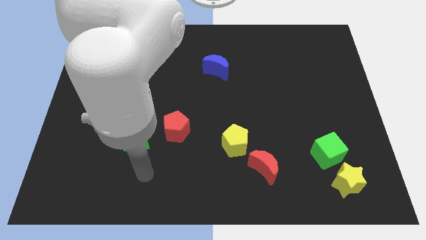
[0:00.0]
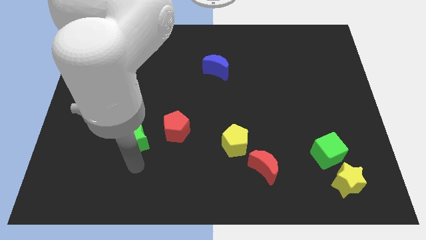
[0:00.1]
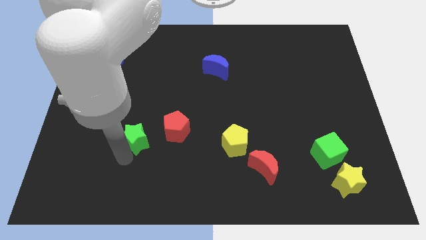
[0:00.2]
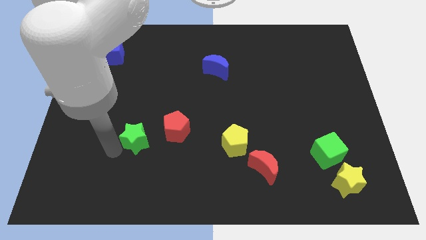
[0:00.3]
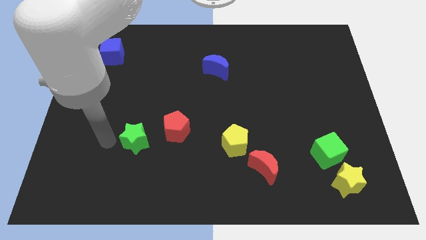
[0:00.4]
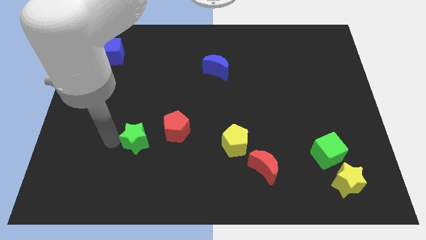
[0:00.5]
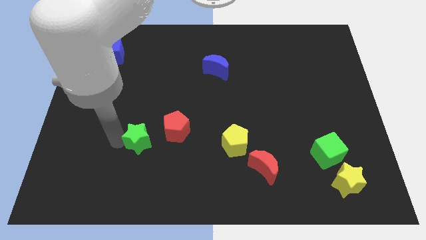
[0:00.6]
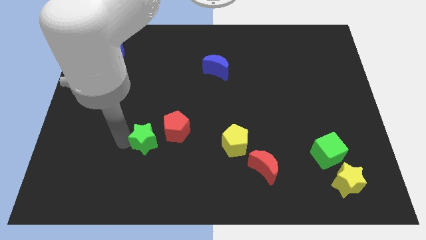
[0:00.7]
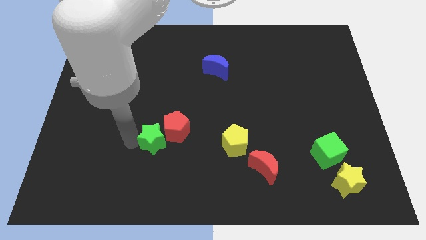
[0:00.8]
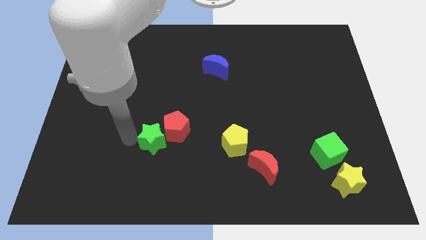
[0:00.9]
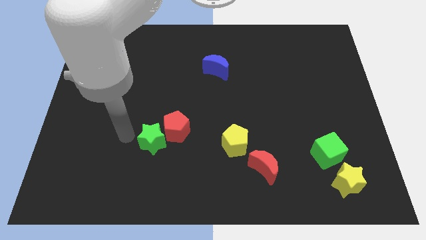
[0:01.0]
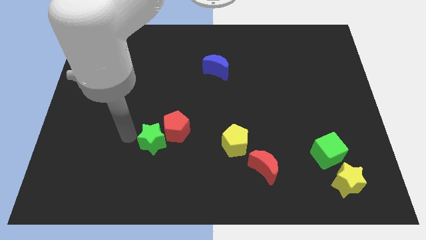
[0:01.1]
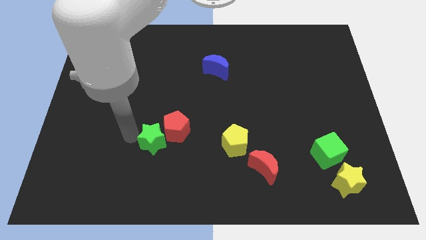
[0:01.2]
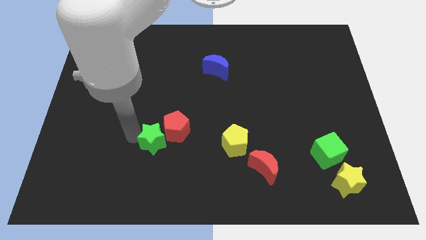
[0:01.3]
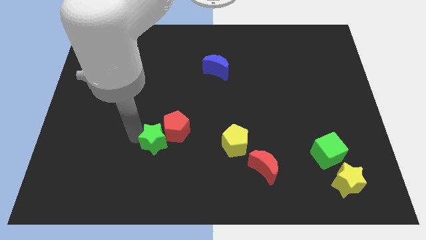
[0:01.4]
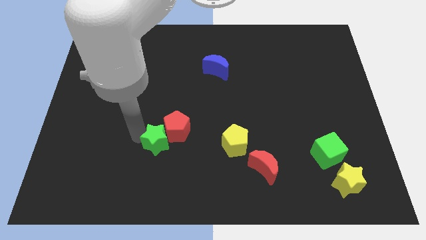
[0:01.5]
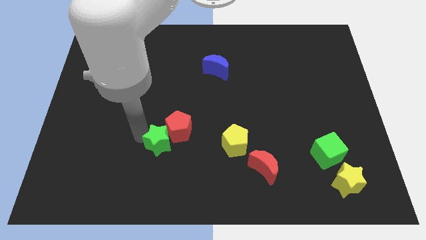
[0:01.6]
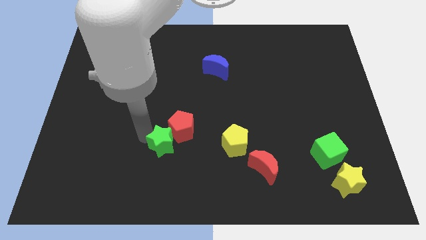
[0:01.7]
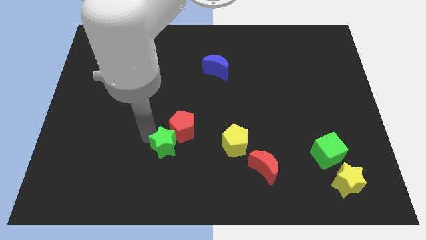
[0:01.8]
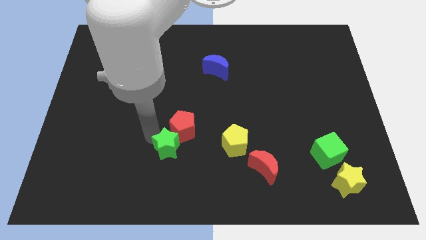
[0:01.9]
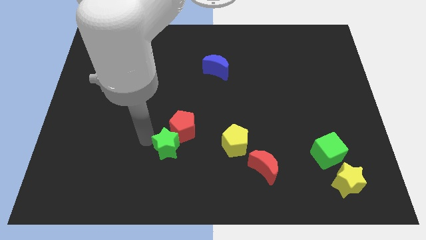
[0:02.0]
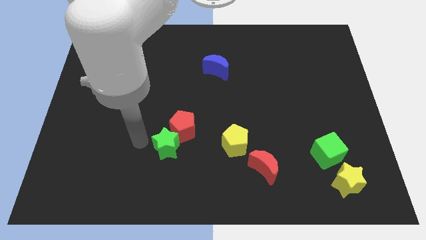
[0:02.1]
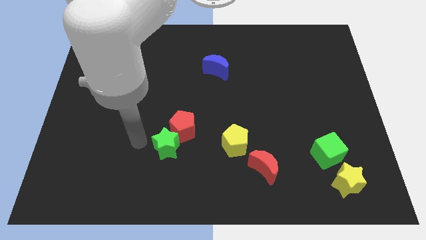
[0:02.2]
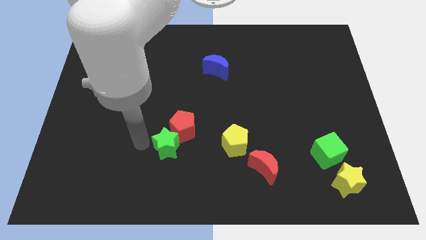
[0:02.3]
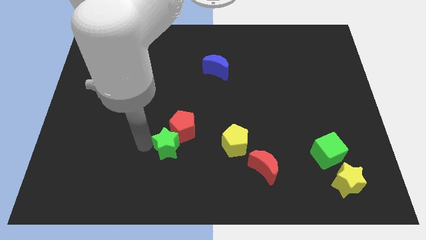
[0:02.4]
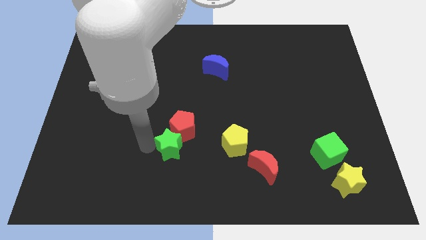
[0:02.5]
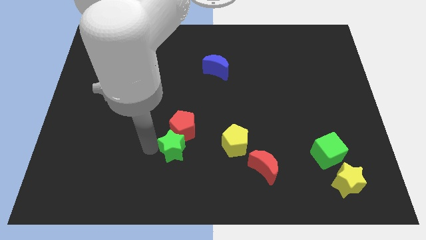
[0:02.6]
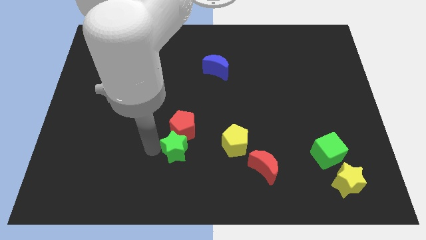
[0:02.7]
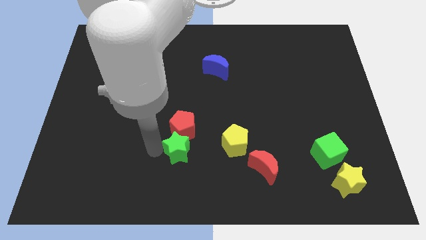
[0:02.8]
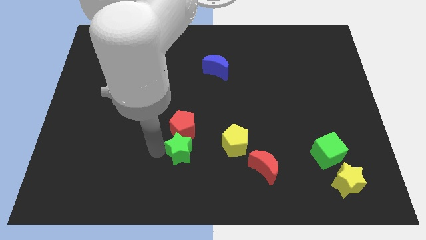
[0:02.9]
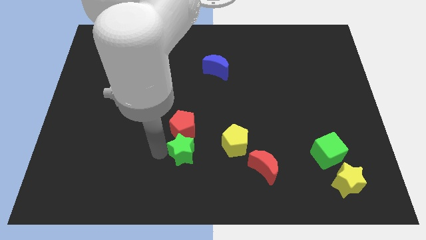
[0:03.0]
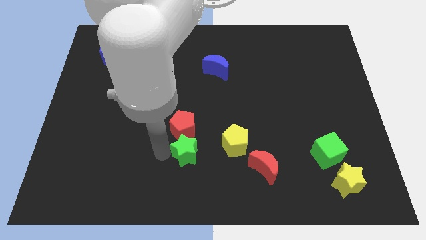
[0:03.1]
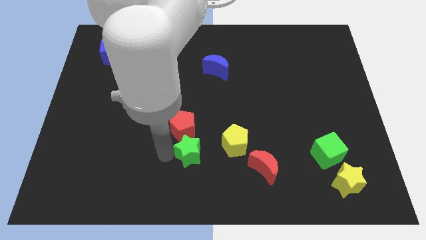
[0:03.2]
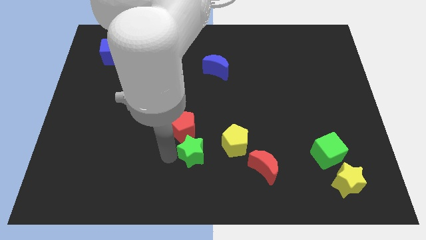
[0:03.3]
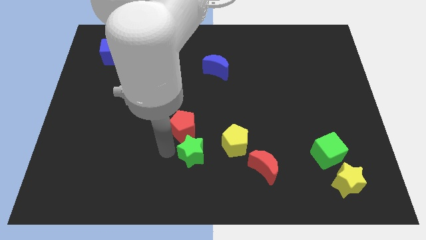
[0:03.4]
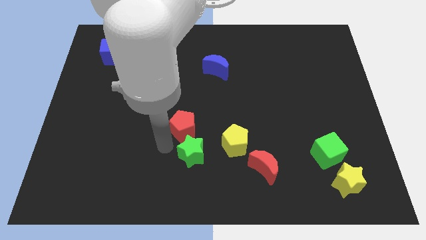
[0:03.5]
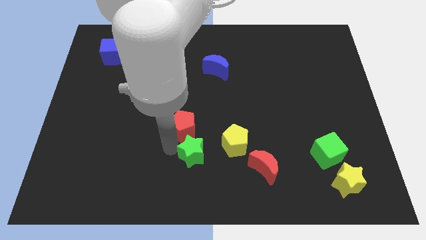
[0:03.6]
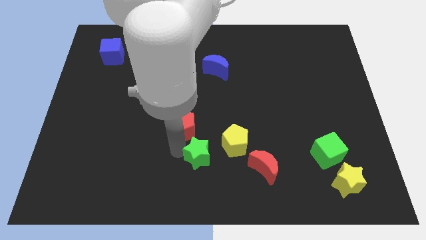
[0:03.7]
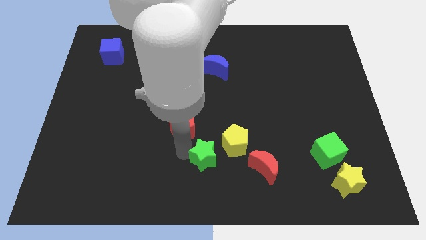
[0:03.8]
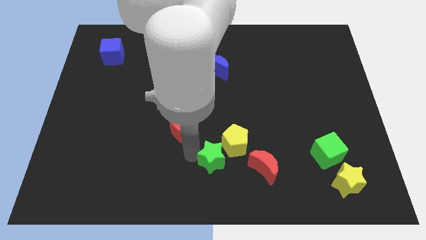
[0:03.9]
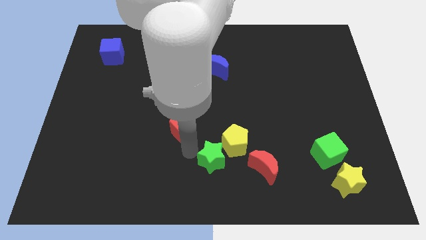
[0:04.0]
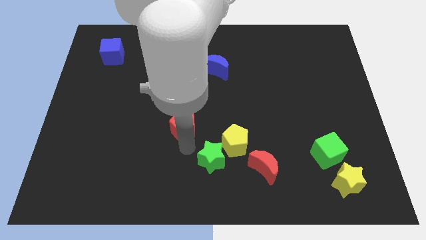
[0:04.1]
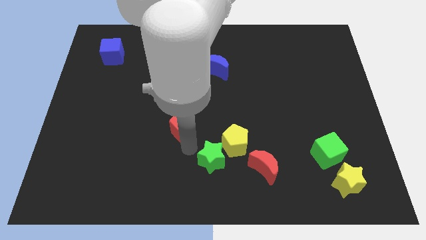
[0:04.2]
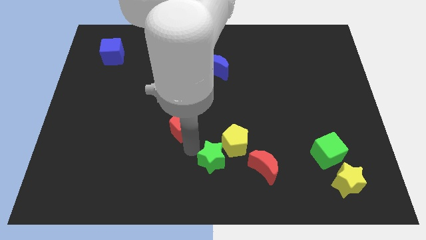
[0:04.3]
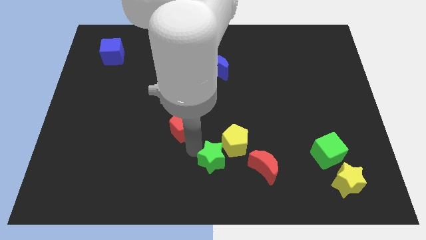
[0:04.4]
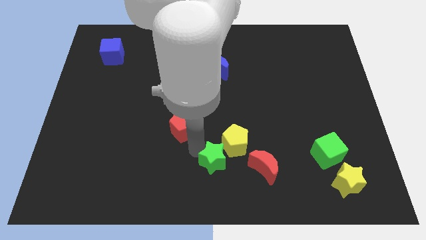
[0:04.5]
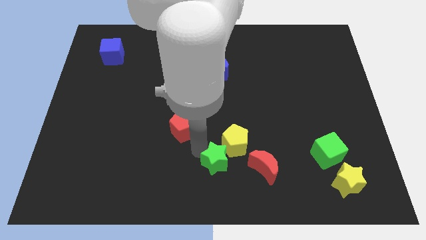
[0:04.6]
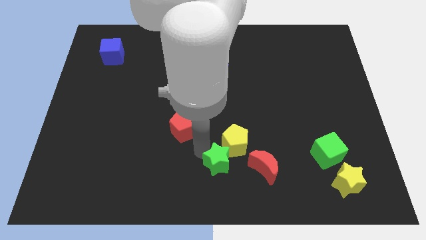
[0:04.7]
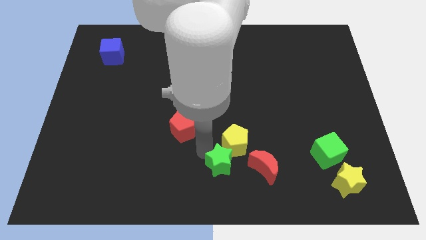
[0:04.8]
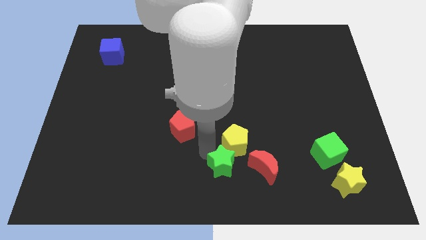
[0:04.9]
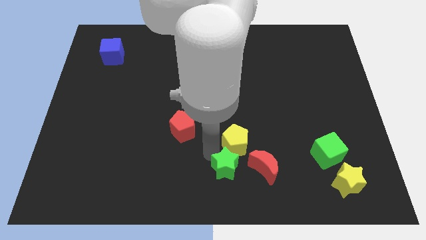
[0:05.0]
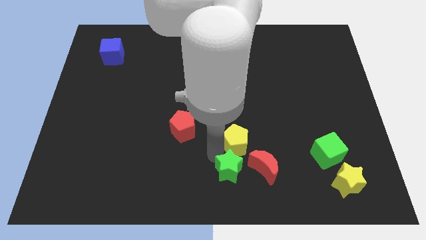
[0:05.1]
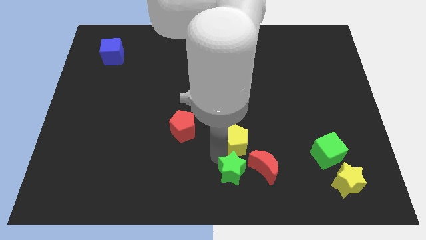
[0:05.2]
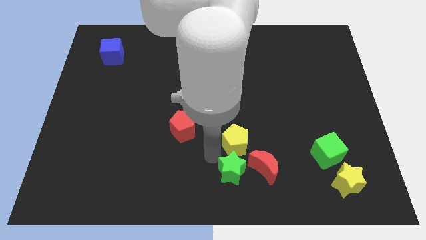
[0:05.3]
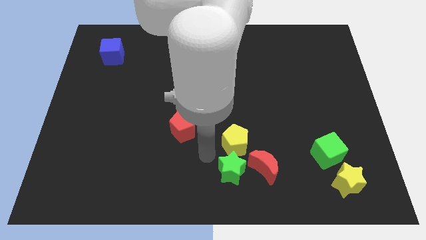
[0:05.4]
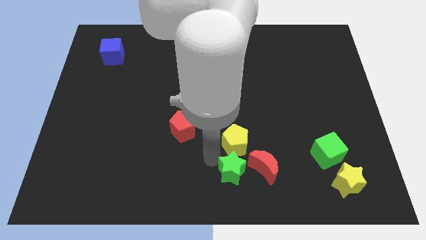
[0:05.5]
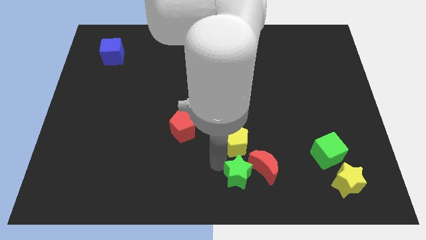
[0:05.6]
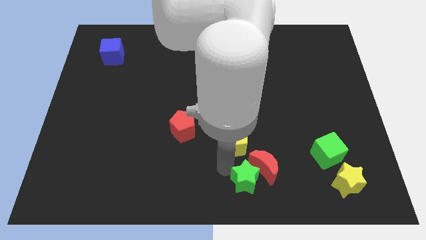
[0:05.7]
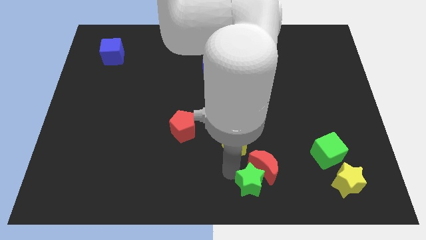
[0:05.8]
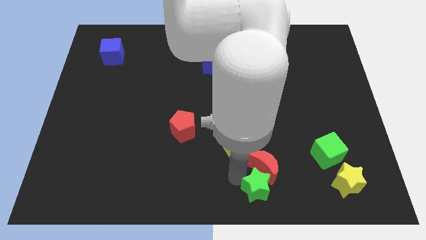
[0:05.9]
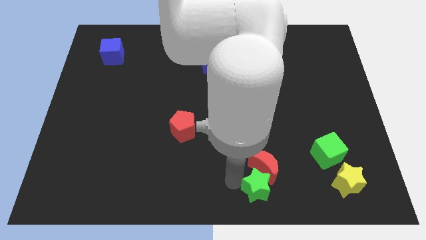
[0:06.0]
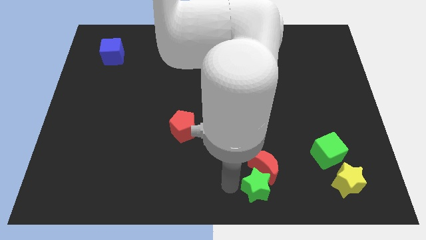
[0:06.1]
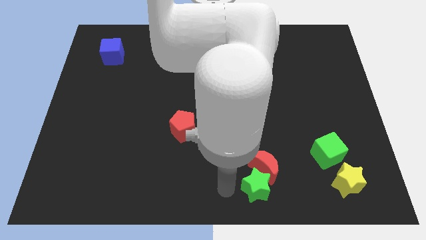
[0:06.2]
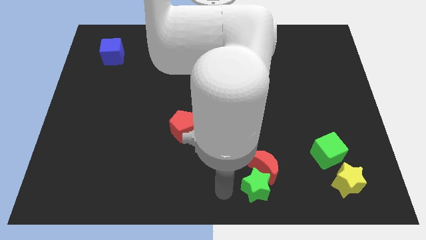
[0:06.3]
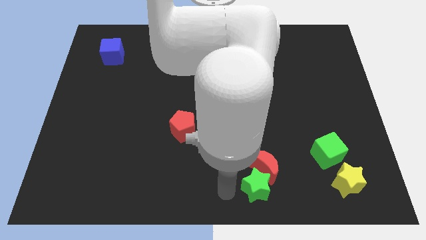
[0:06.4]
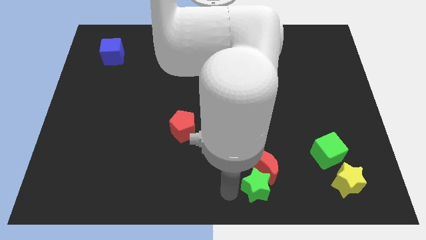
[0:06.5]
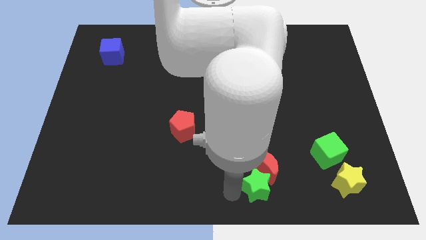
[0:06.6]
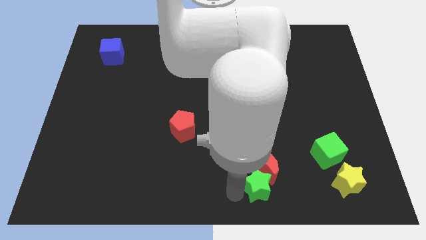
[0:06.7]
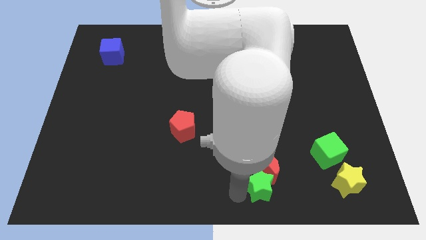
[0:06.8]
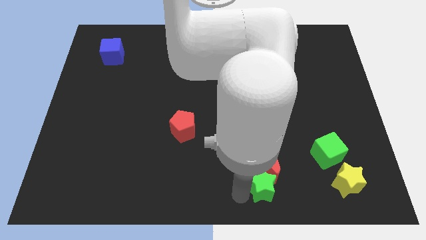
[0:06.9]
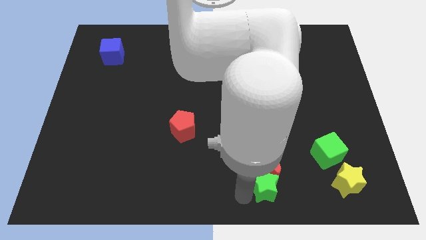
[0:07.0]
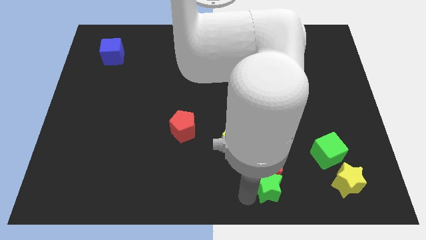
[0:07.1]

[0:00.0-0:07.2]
move the green star just left of the yellow star

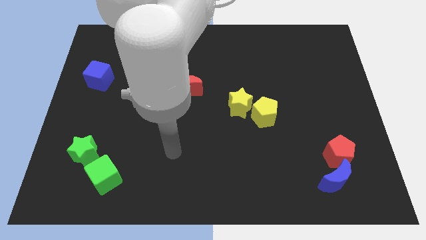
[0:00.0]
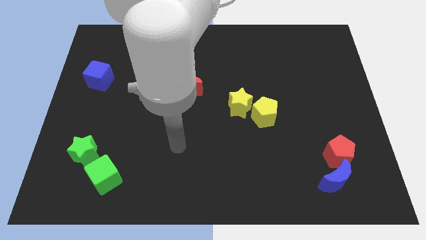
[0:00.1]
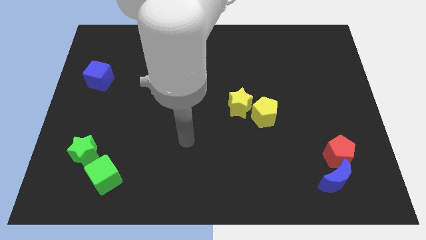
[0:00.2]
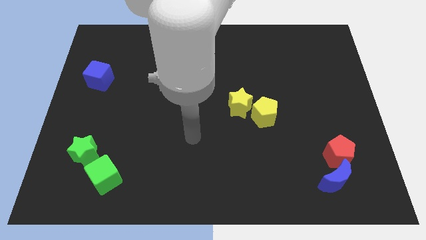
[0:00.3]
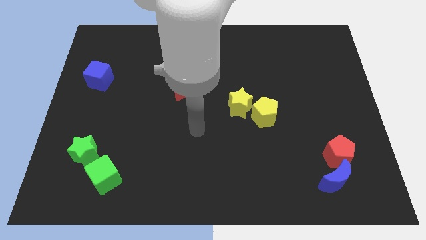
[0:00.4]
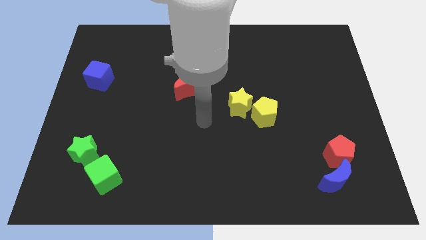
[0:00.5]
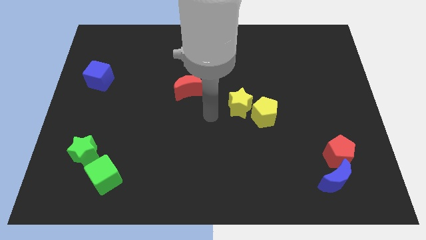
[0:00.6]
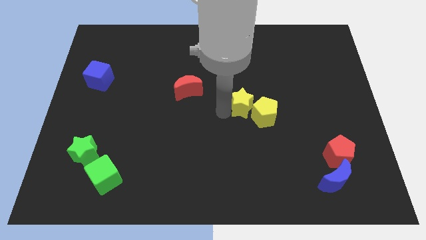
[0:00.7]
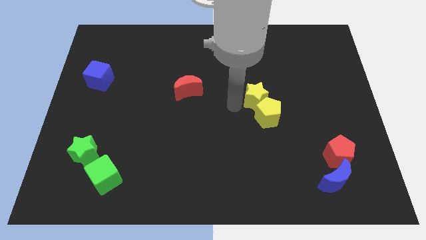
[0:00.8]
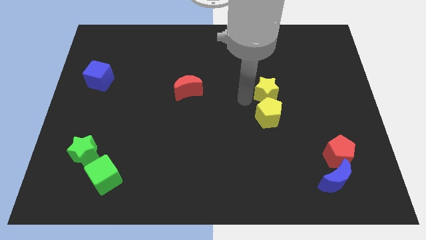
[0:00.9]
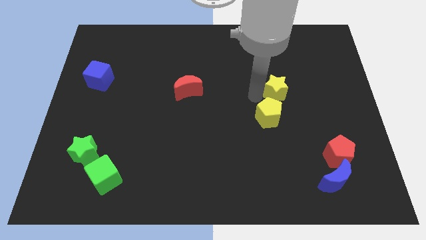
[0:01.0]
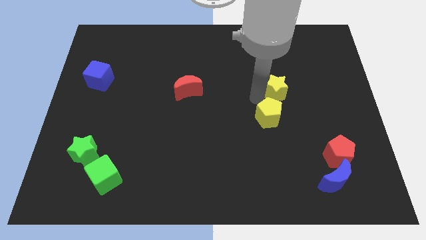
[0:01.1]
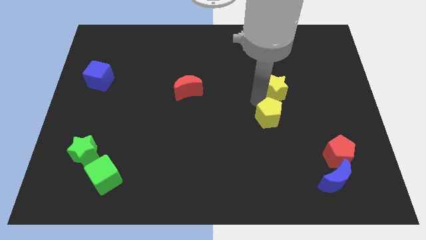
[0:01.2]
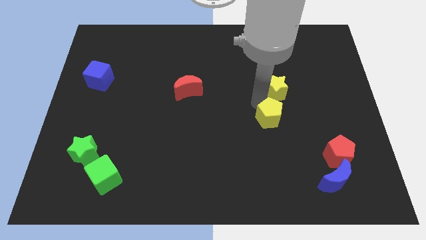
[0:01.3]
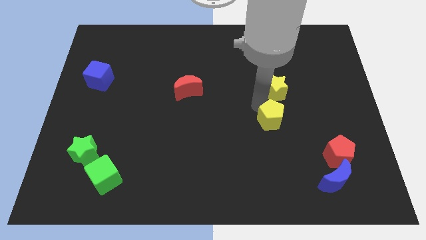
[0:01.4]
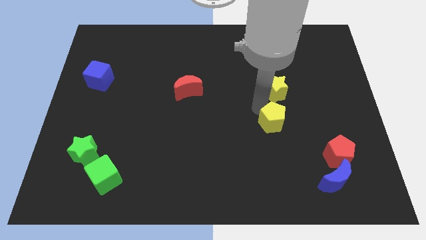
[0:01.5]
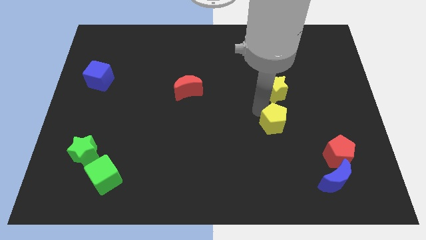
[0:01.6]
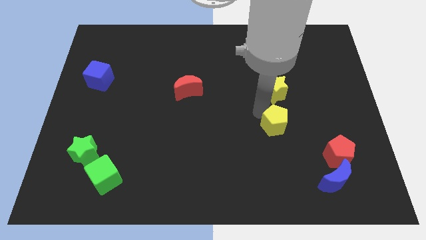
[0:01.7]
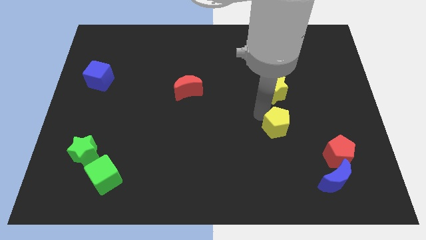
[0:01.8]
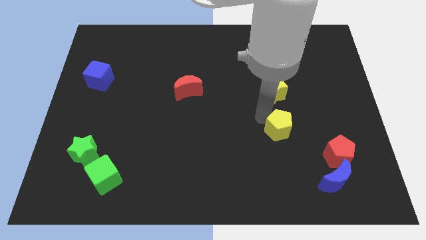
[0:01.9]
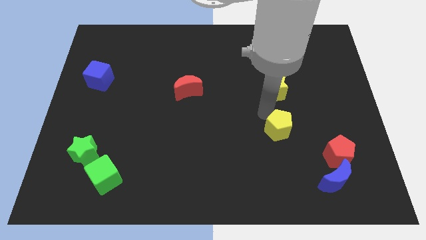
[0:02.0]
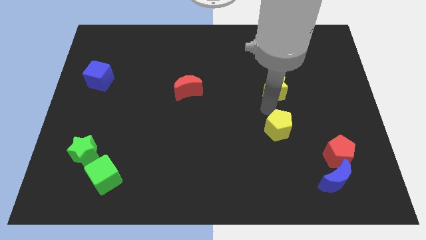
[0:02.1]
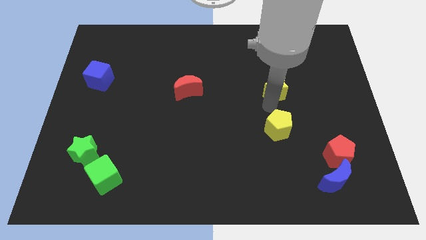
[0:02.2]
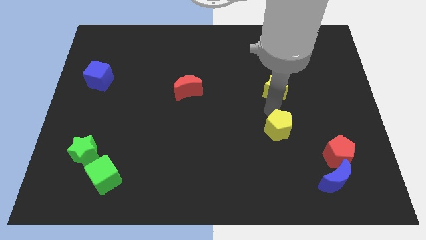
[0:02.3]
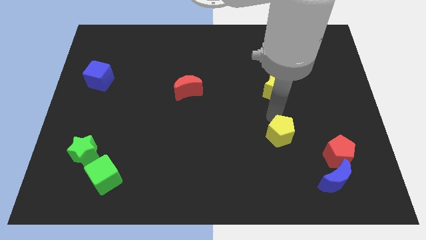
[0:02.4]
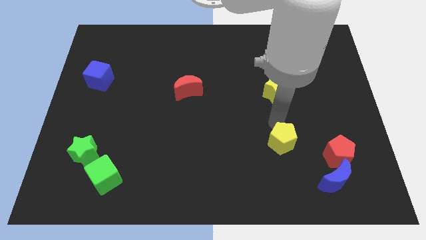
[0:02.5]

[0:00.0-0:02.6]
push the yellow pentagon just left of the red pentagon
